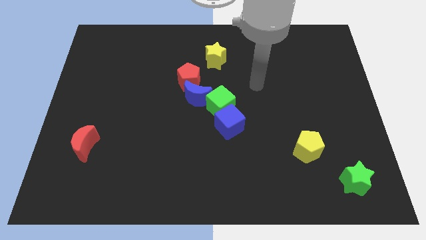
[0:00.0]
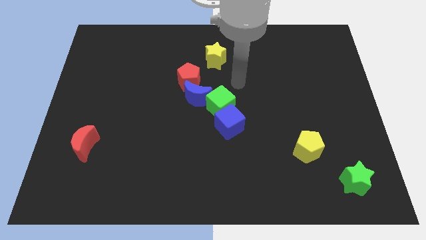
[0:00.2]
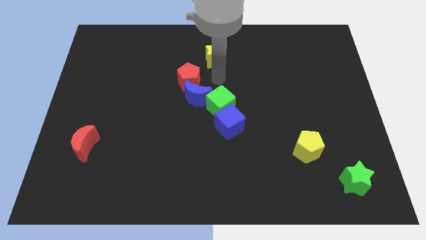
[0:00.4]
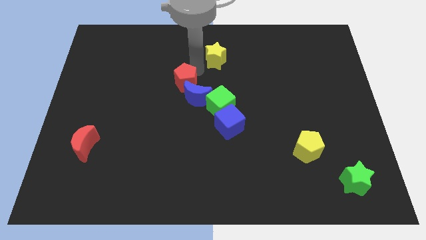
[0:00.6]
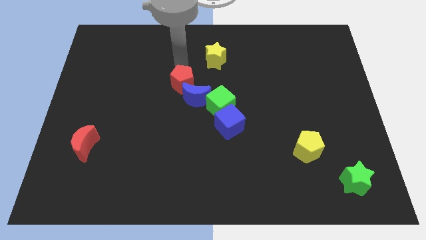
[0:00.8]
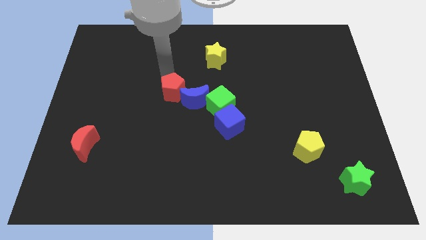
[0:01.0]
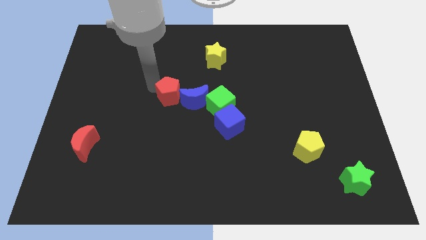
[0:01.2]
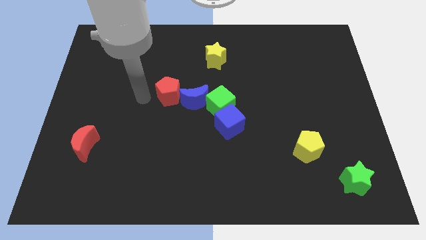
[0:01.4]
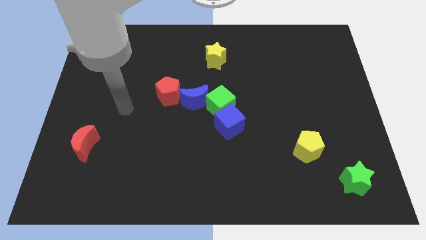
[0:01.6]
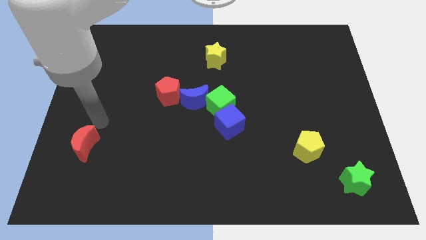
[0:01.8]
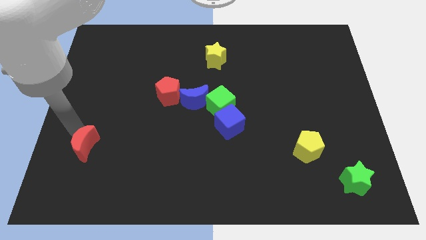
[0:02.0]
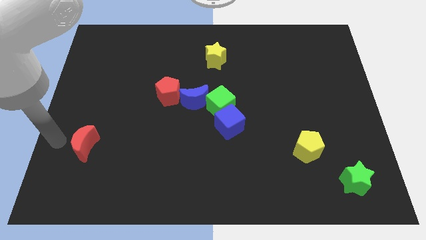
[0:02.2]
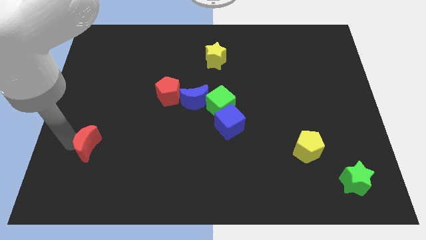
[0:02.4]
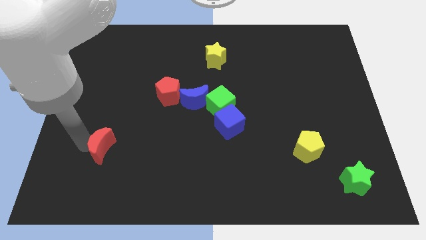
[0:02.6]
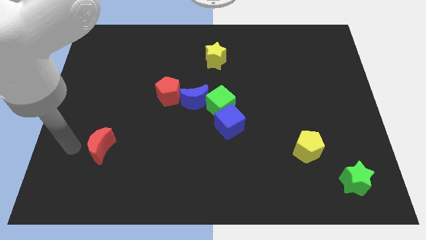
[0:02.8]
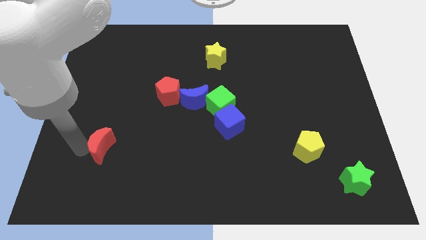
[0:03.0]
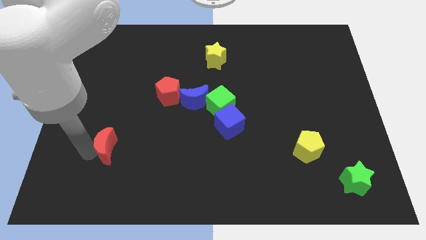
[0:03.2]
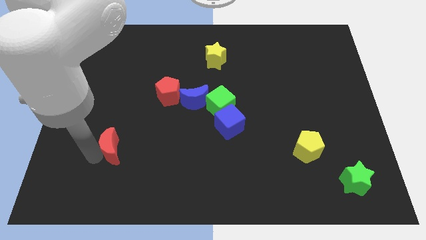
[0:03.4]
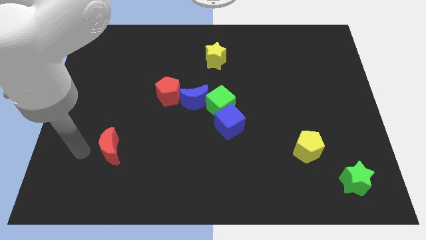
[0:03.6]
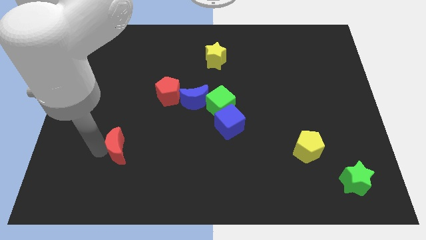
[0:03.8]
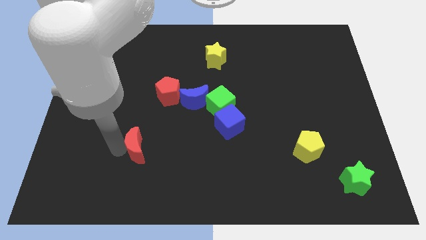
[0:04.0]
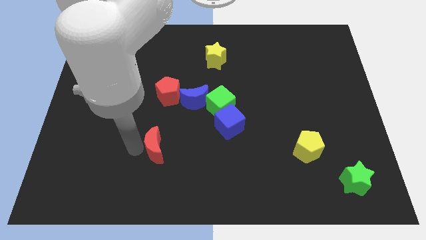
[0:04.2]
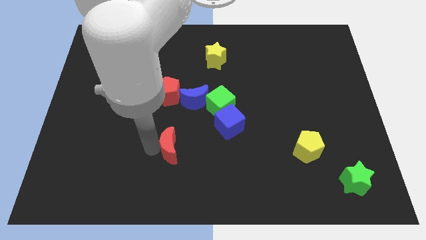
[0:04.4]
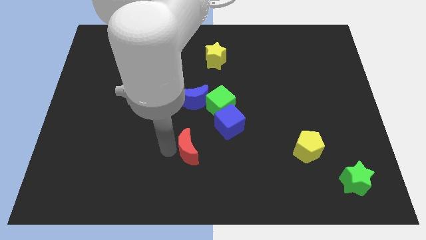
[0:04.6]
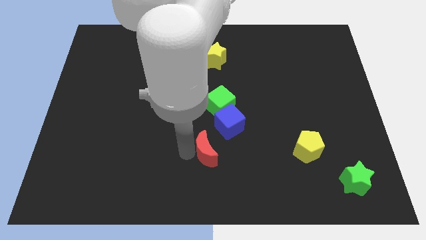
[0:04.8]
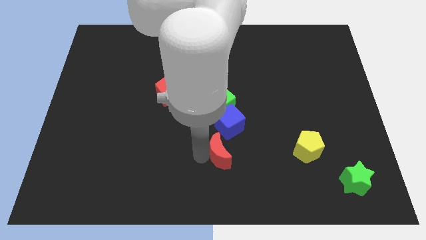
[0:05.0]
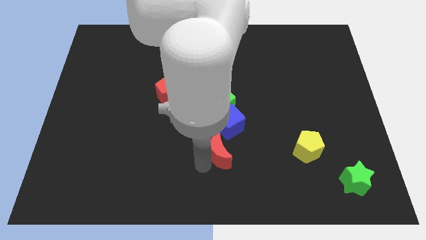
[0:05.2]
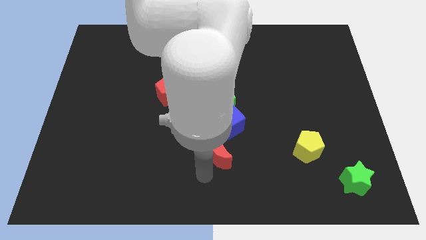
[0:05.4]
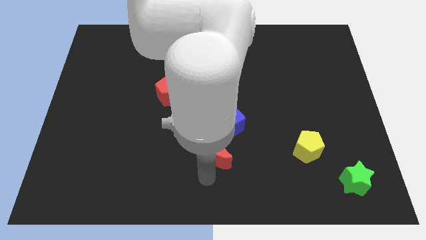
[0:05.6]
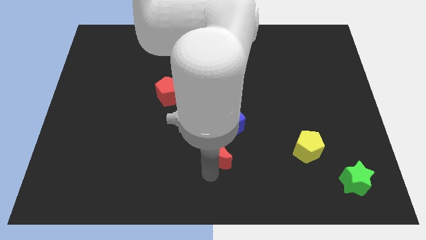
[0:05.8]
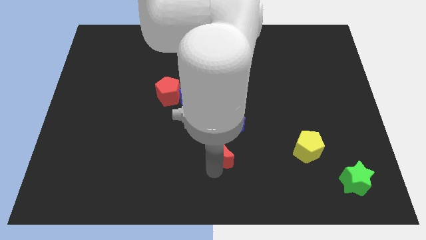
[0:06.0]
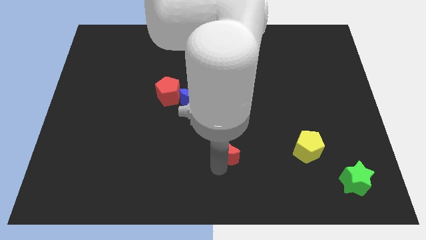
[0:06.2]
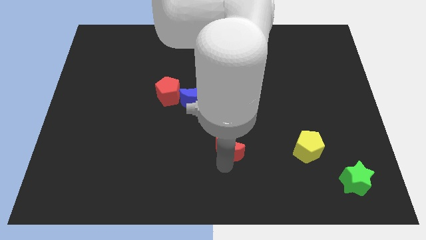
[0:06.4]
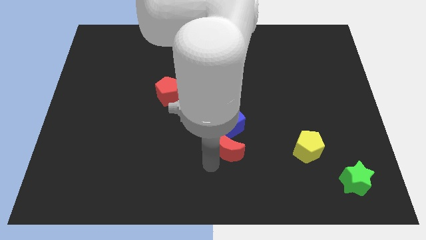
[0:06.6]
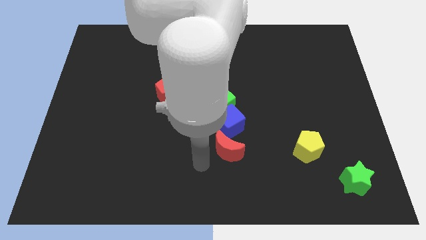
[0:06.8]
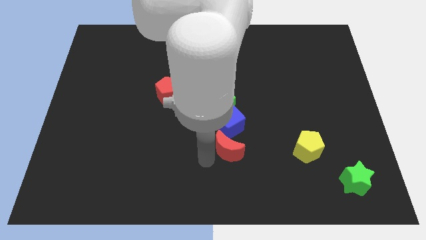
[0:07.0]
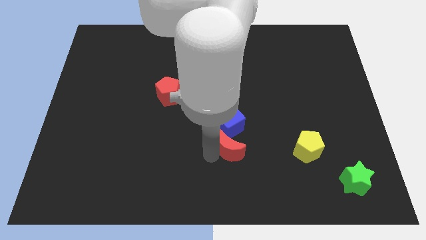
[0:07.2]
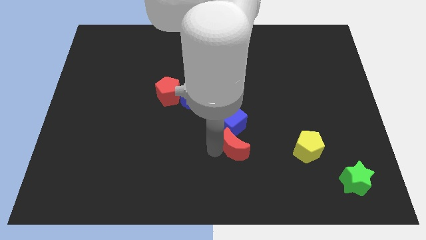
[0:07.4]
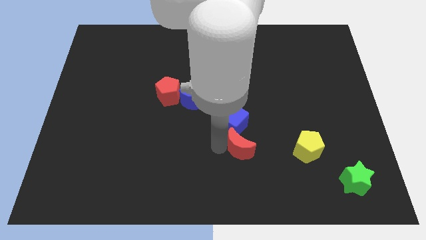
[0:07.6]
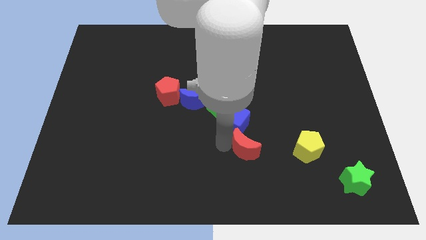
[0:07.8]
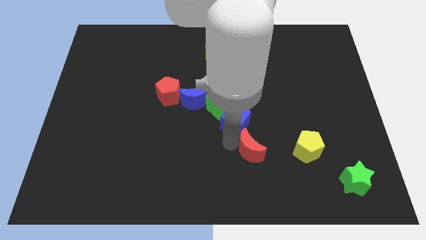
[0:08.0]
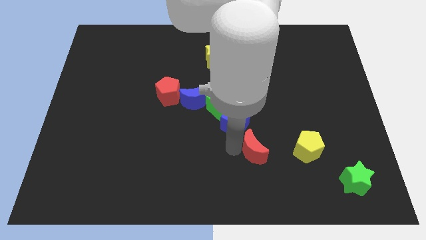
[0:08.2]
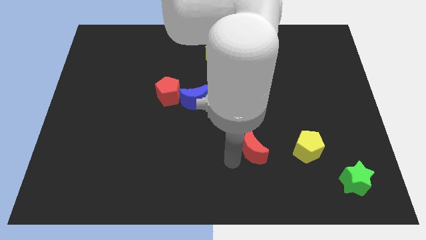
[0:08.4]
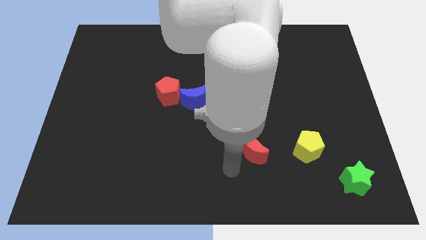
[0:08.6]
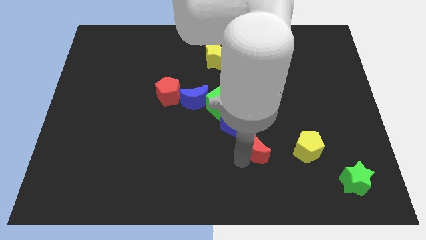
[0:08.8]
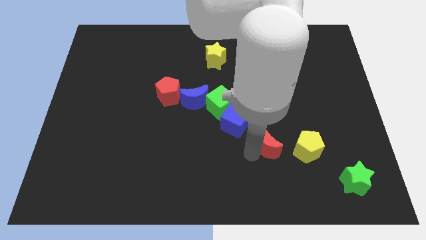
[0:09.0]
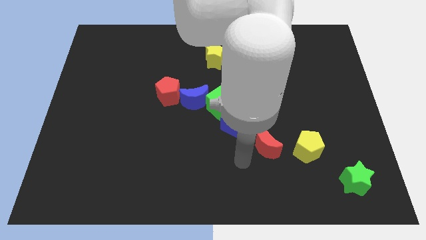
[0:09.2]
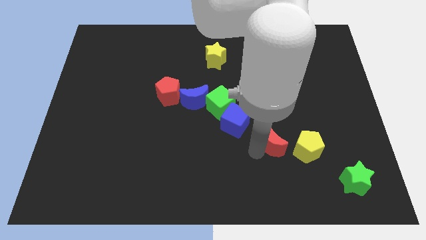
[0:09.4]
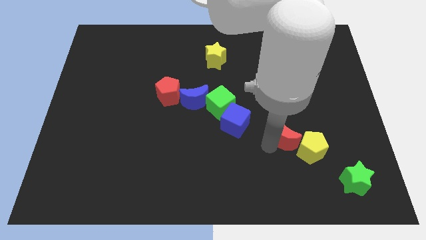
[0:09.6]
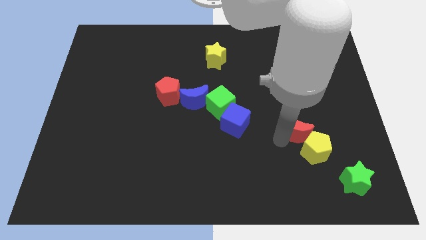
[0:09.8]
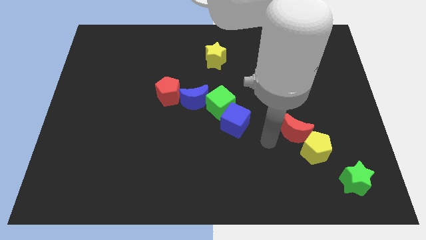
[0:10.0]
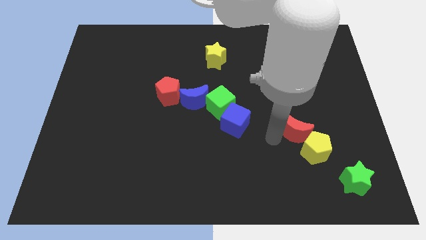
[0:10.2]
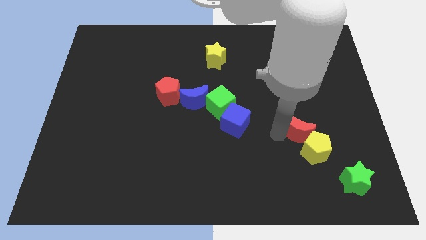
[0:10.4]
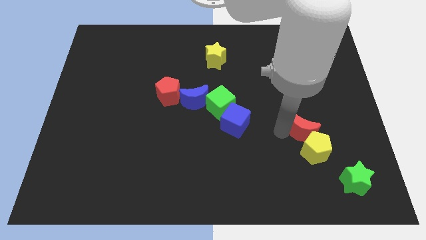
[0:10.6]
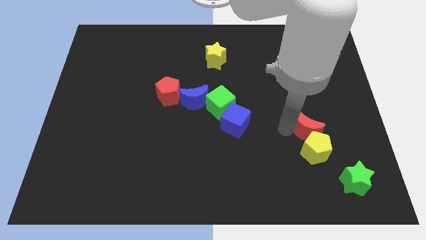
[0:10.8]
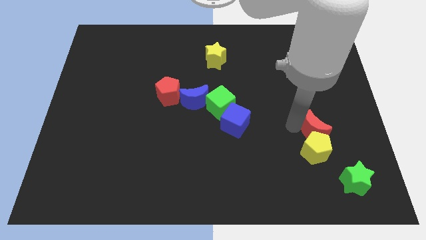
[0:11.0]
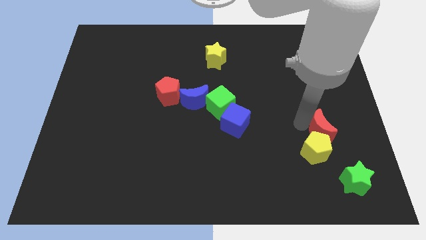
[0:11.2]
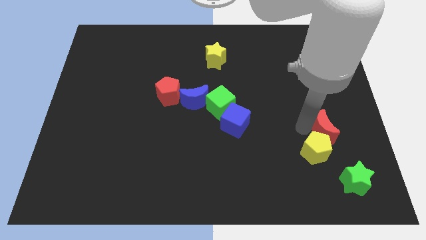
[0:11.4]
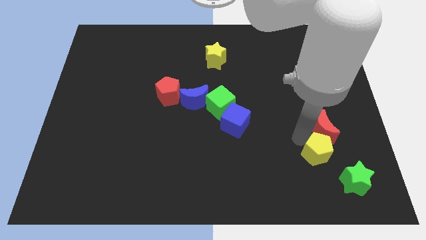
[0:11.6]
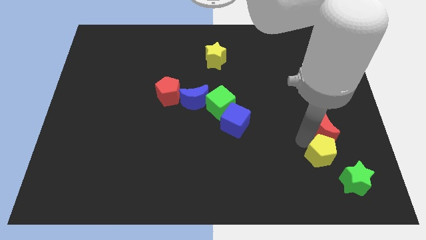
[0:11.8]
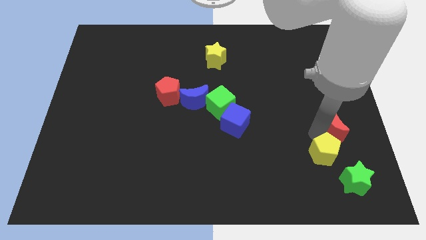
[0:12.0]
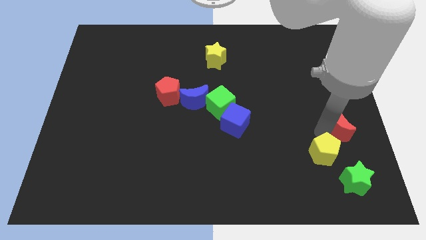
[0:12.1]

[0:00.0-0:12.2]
put the red moon to the center right
